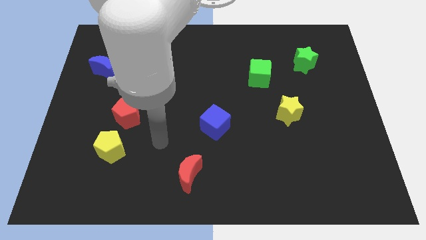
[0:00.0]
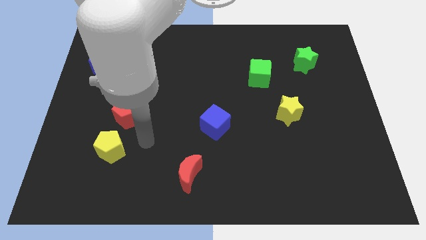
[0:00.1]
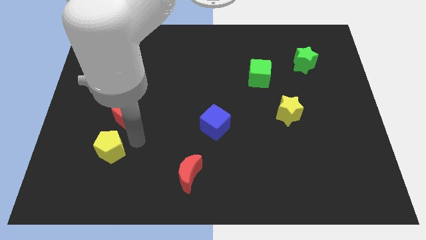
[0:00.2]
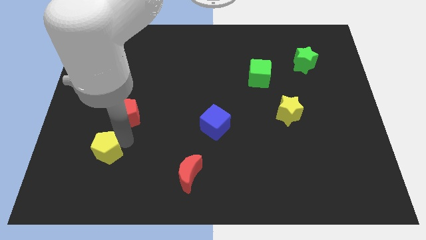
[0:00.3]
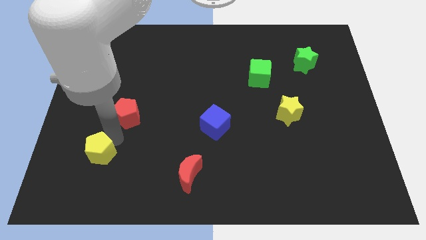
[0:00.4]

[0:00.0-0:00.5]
pull the red pentagon apart from the yellow pentagon

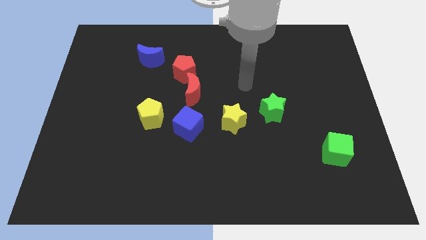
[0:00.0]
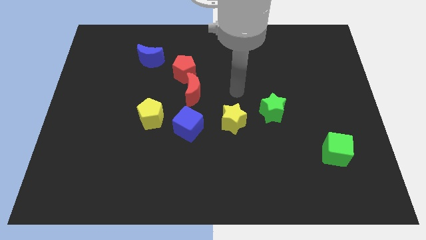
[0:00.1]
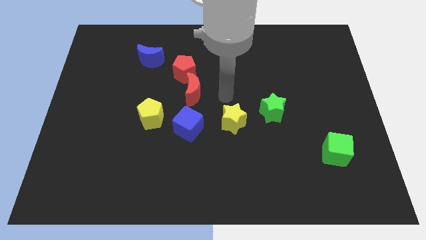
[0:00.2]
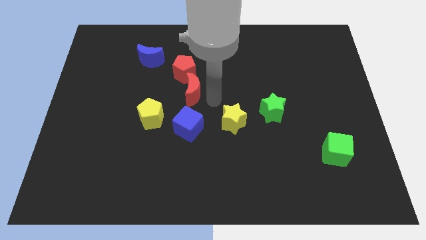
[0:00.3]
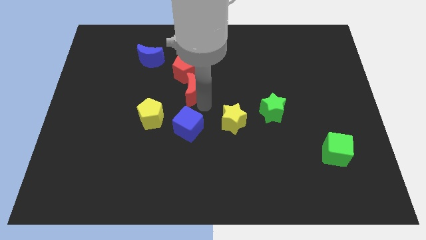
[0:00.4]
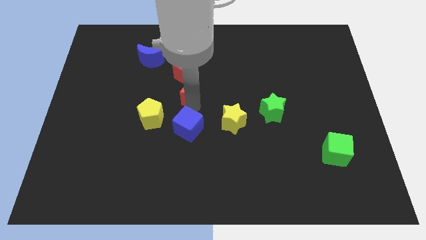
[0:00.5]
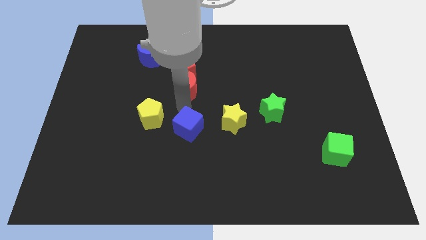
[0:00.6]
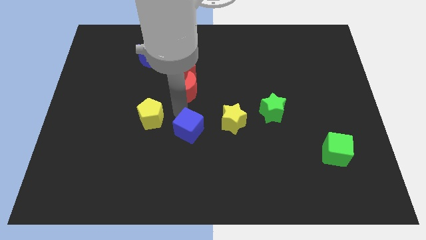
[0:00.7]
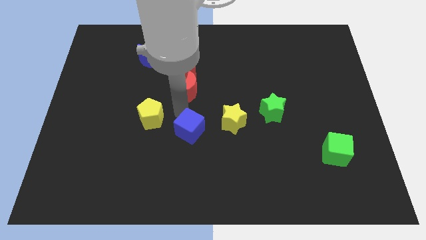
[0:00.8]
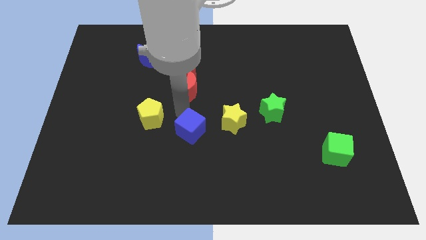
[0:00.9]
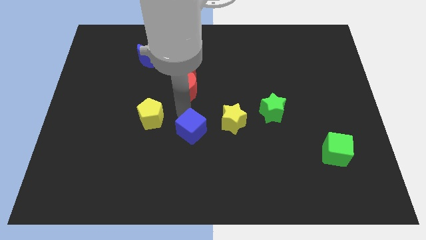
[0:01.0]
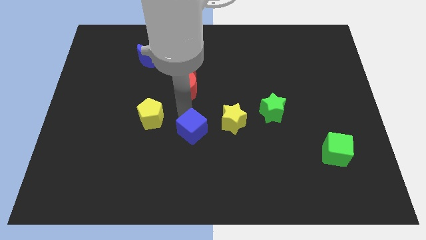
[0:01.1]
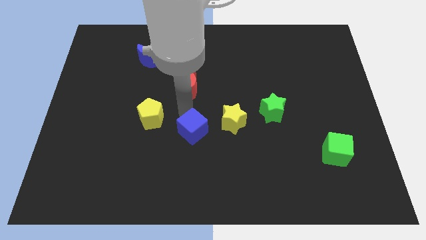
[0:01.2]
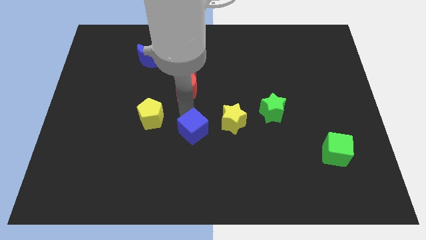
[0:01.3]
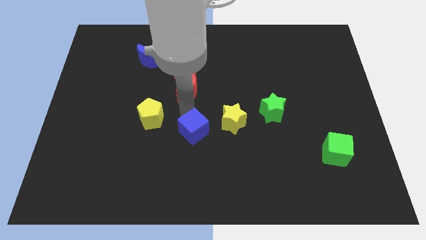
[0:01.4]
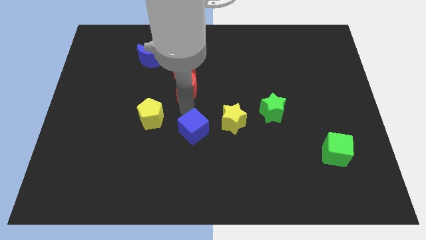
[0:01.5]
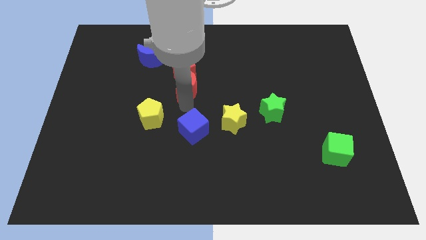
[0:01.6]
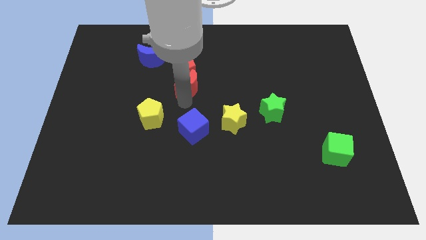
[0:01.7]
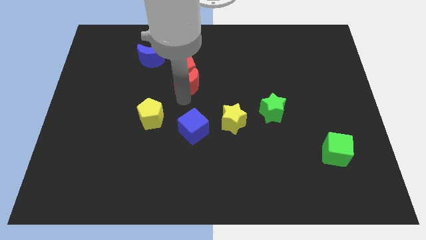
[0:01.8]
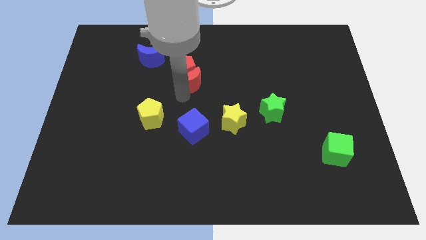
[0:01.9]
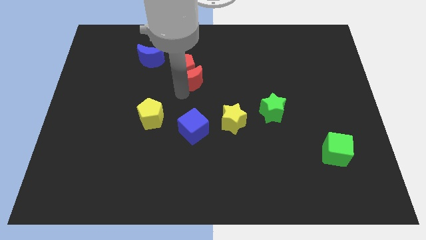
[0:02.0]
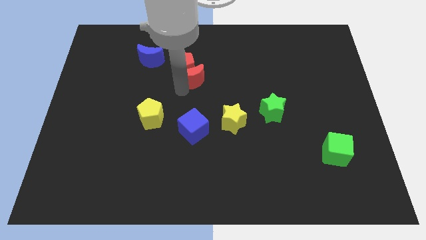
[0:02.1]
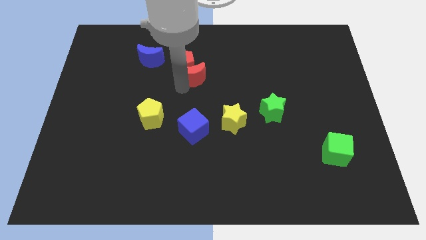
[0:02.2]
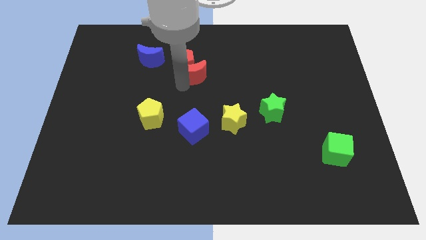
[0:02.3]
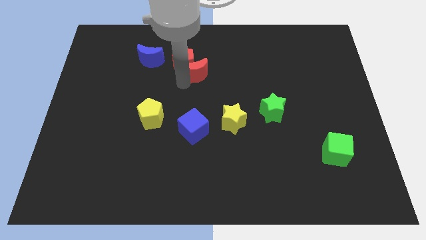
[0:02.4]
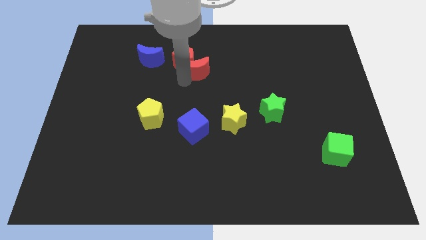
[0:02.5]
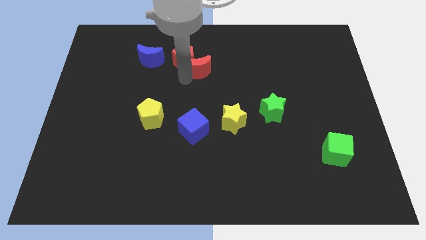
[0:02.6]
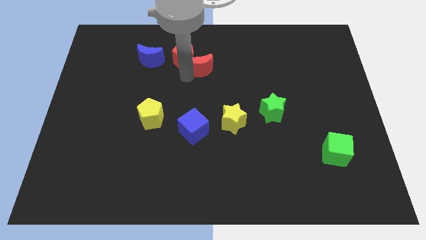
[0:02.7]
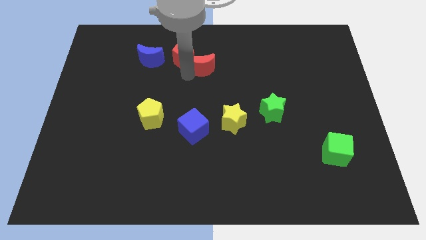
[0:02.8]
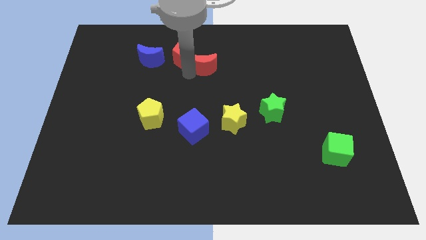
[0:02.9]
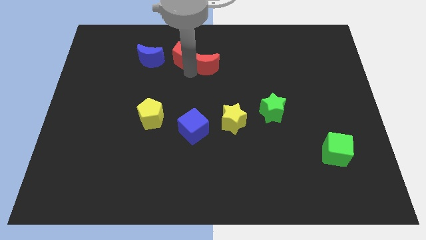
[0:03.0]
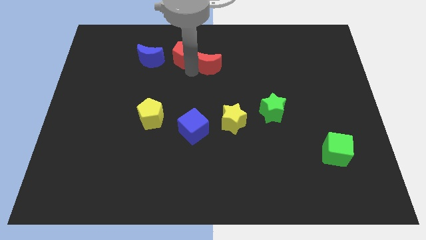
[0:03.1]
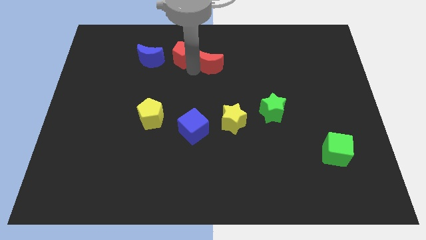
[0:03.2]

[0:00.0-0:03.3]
separate the red moon from the red pentagon and blue cube

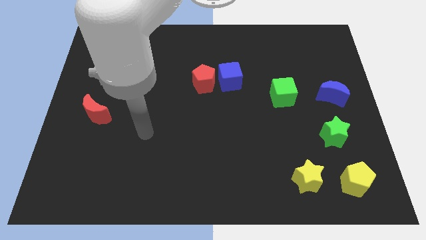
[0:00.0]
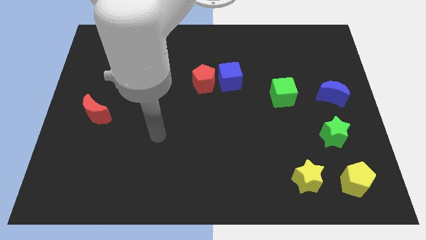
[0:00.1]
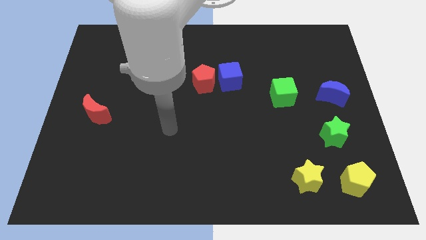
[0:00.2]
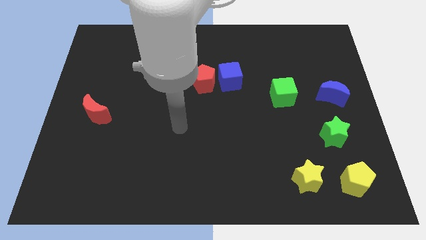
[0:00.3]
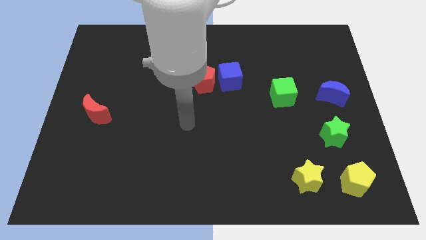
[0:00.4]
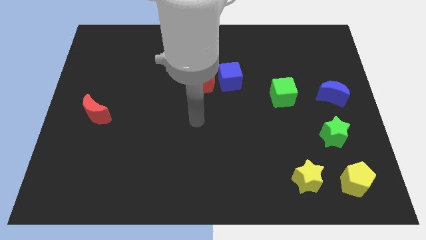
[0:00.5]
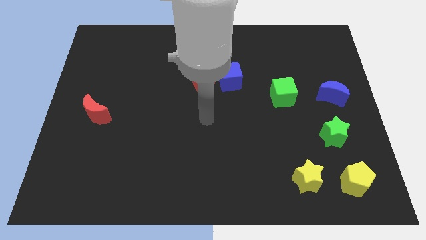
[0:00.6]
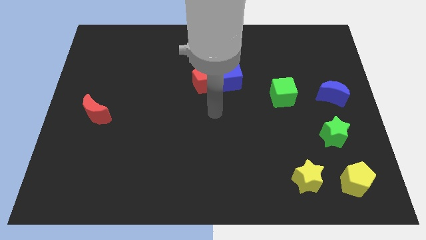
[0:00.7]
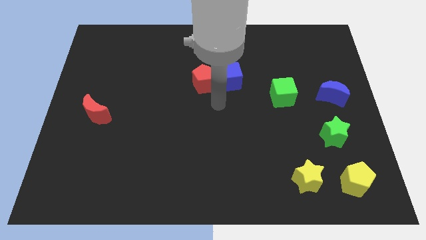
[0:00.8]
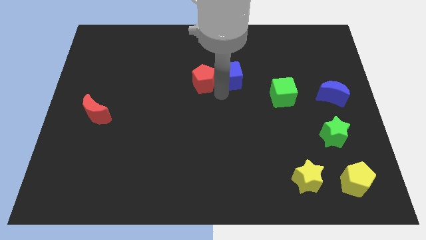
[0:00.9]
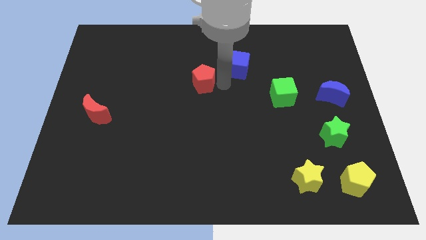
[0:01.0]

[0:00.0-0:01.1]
pull the red pentagon apart from the blue cube

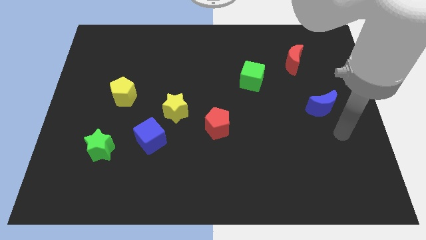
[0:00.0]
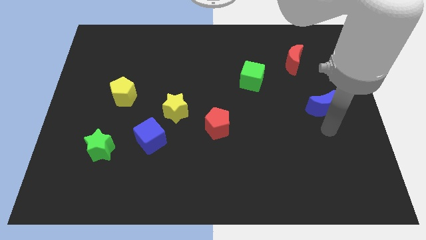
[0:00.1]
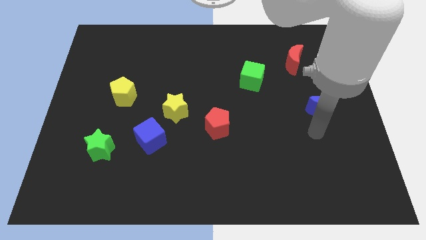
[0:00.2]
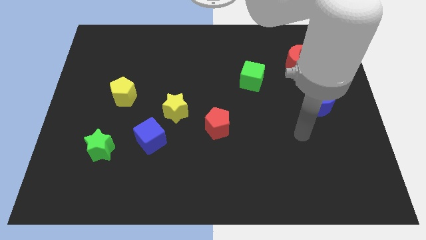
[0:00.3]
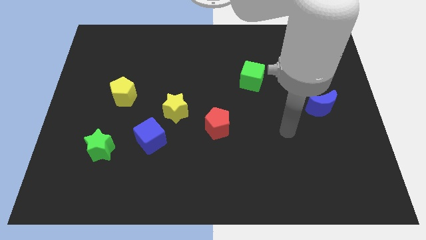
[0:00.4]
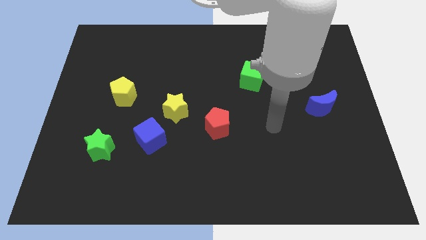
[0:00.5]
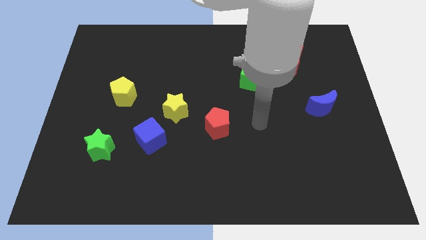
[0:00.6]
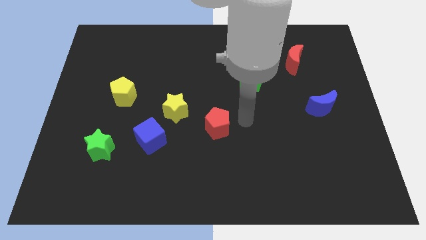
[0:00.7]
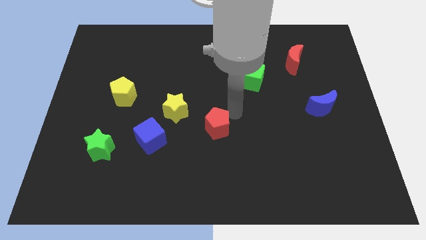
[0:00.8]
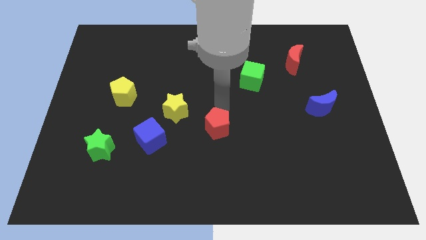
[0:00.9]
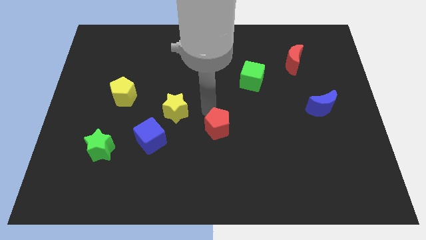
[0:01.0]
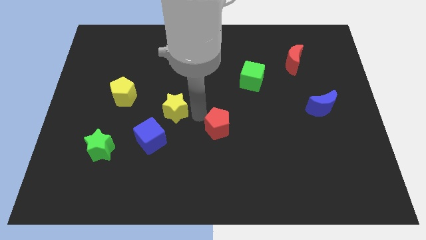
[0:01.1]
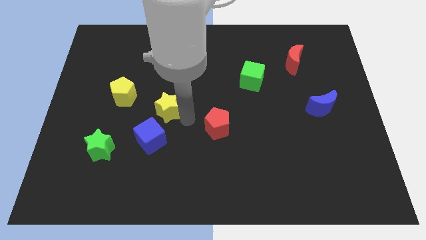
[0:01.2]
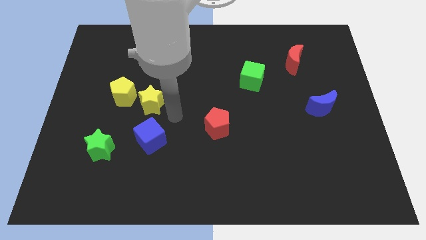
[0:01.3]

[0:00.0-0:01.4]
pull the blue cube apart from the yellow star

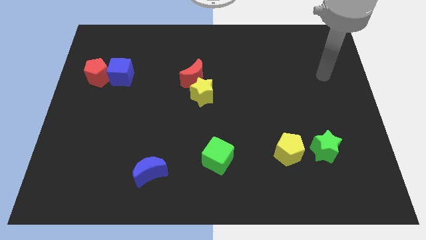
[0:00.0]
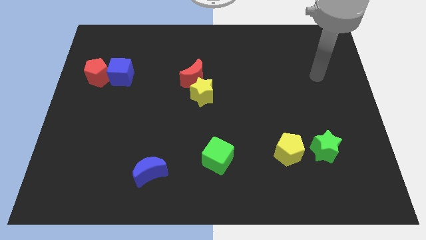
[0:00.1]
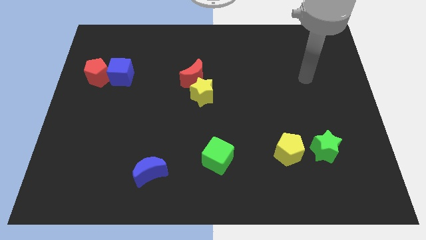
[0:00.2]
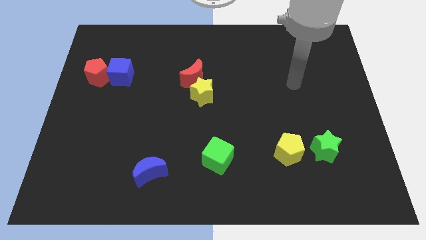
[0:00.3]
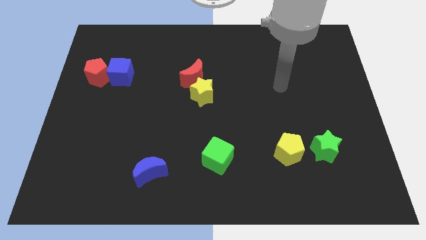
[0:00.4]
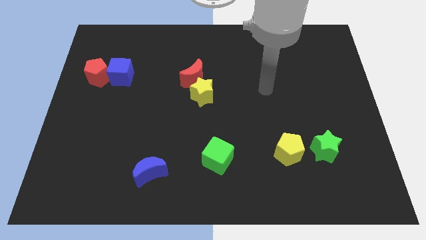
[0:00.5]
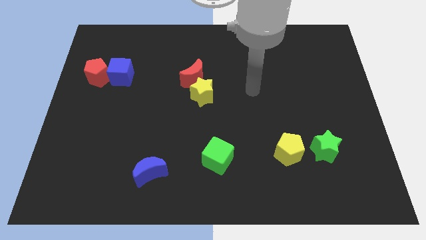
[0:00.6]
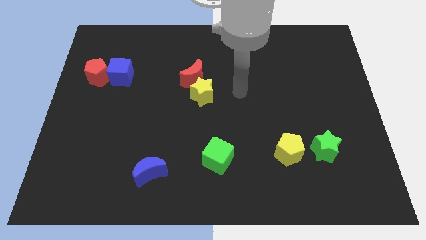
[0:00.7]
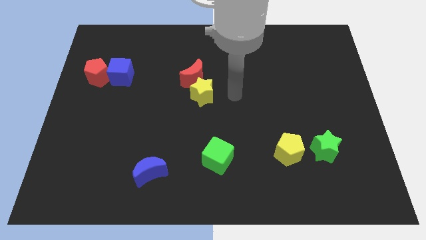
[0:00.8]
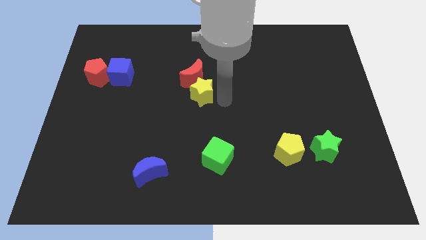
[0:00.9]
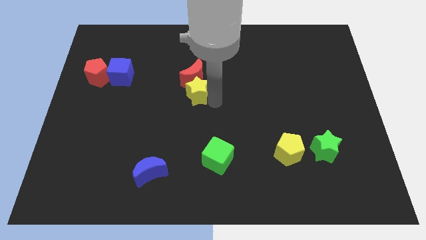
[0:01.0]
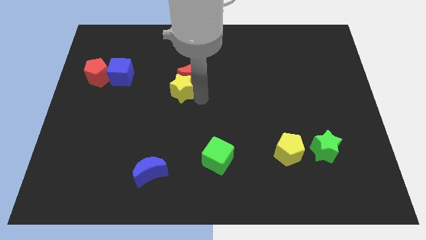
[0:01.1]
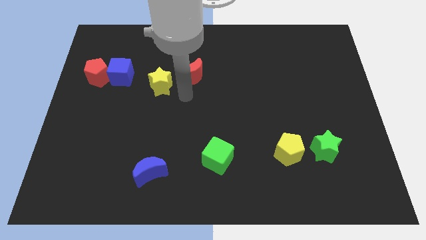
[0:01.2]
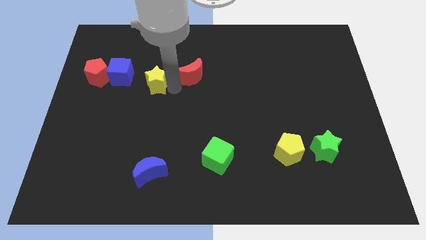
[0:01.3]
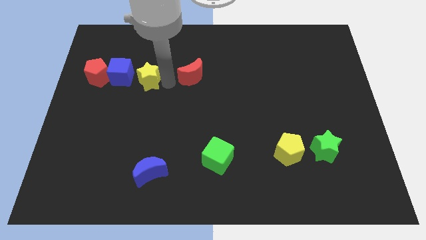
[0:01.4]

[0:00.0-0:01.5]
separate the red moon from the yellow star

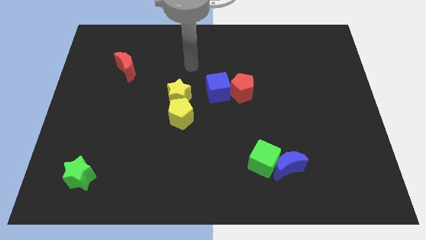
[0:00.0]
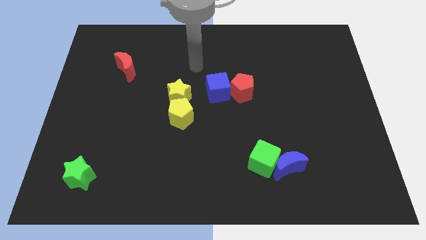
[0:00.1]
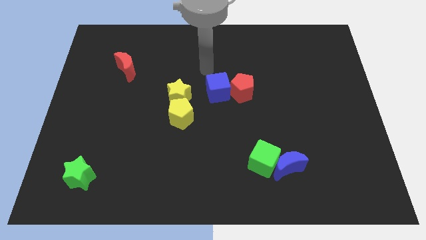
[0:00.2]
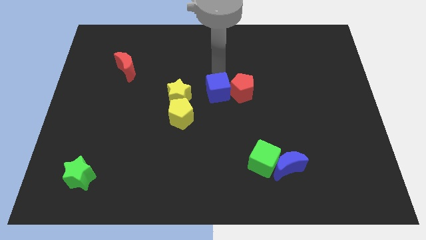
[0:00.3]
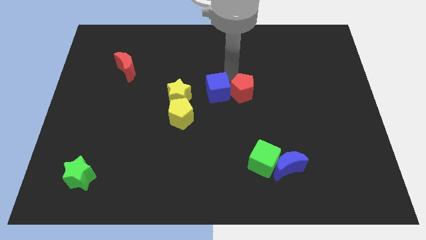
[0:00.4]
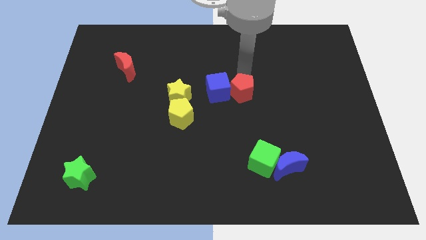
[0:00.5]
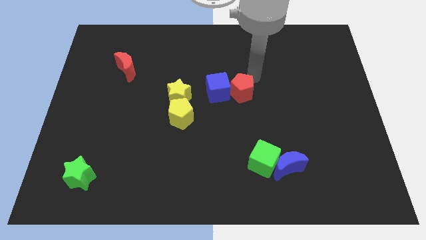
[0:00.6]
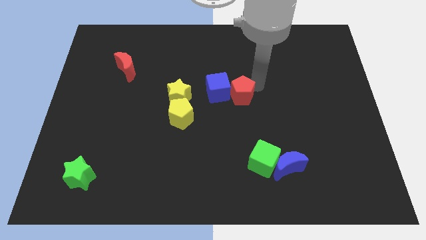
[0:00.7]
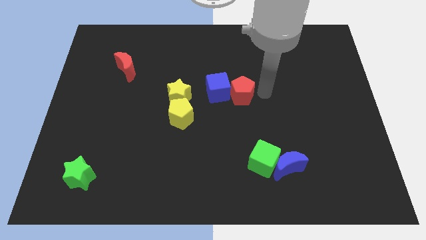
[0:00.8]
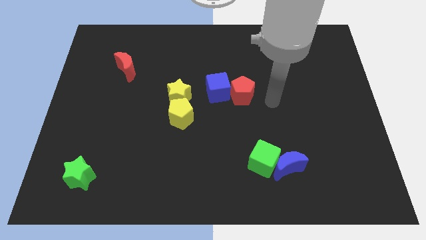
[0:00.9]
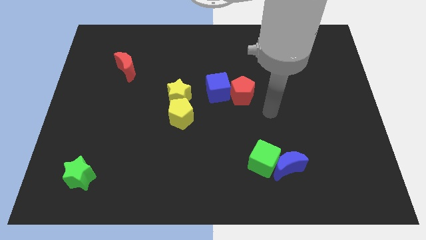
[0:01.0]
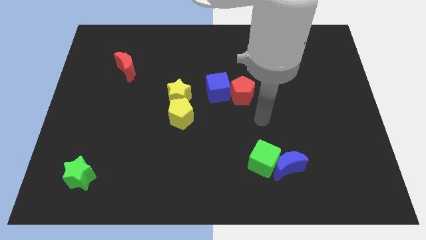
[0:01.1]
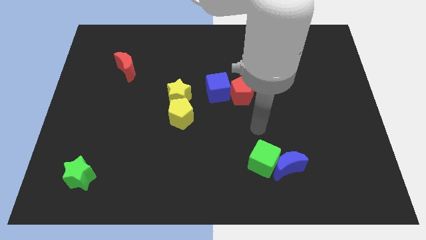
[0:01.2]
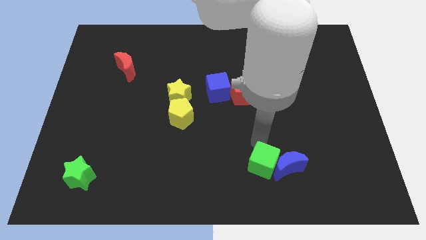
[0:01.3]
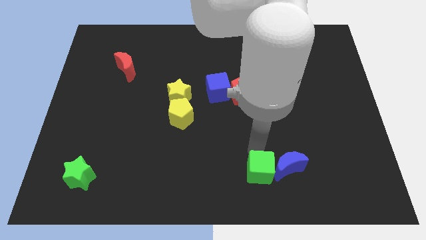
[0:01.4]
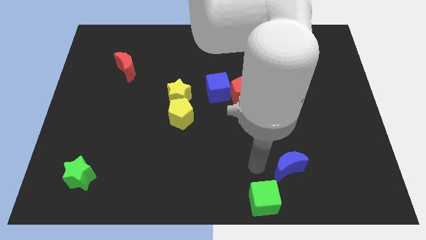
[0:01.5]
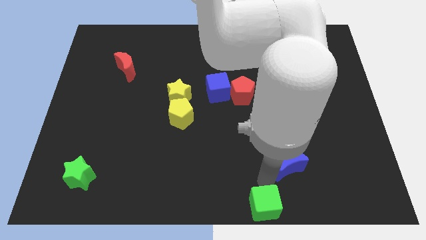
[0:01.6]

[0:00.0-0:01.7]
move the blue moon away from the green cube

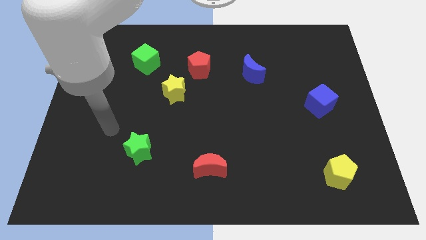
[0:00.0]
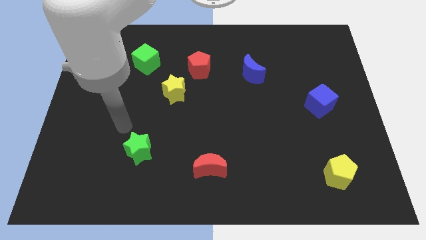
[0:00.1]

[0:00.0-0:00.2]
move the red pentagon away from the yellow star
